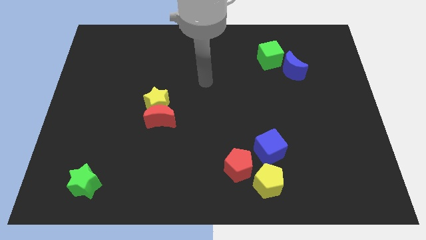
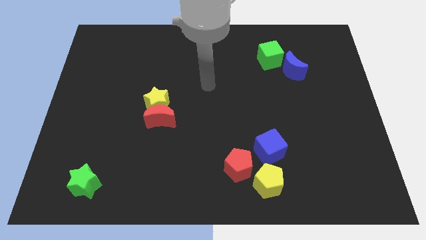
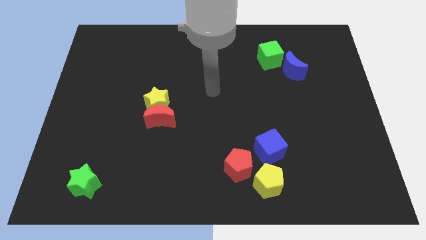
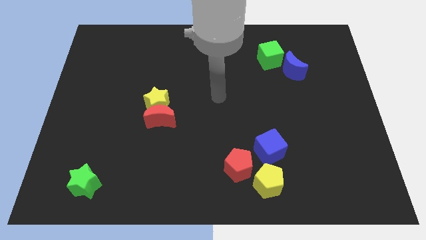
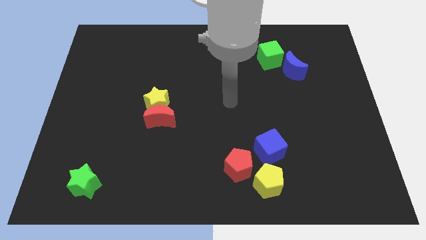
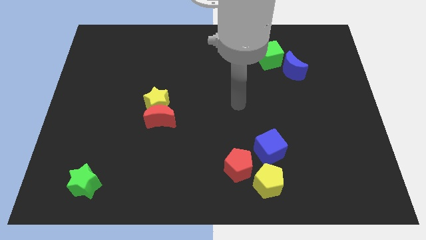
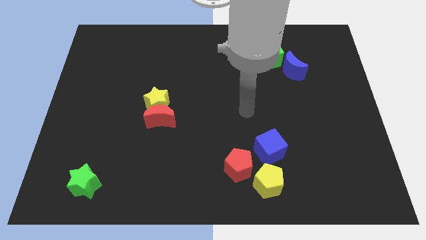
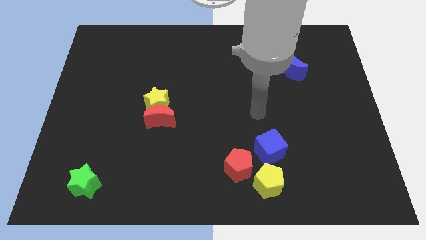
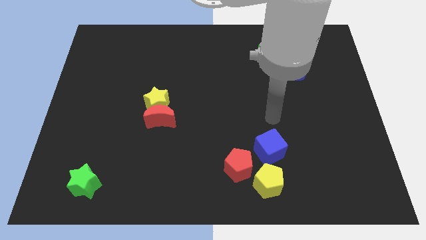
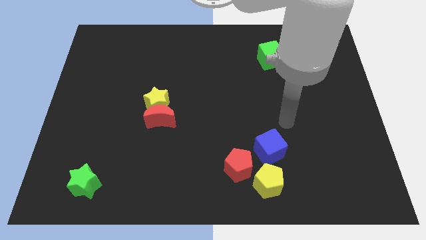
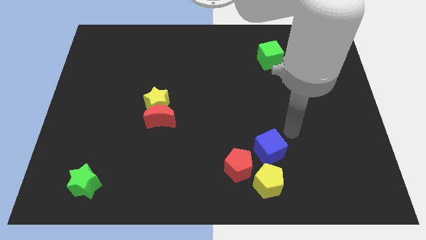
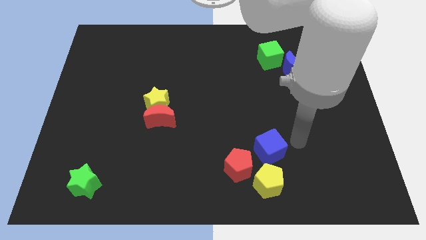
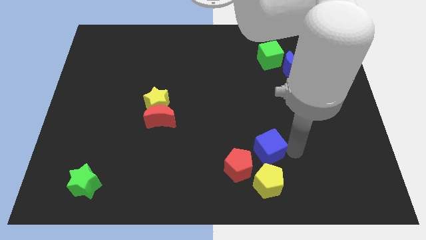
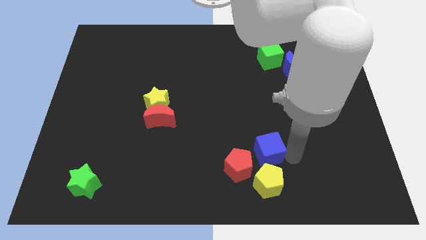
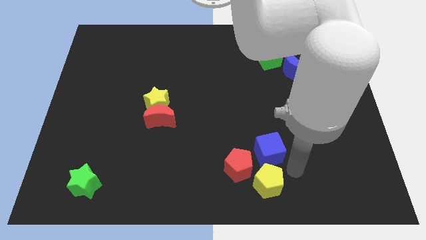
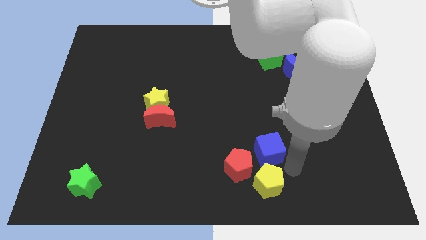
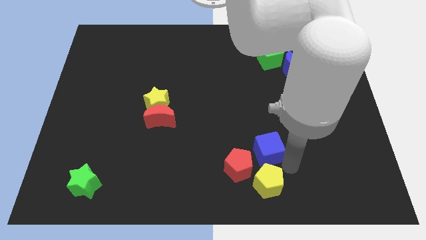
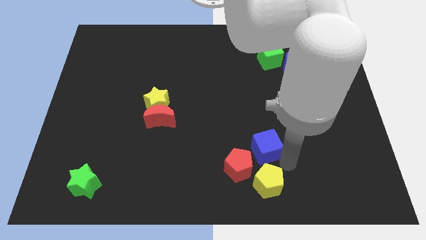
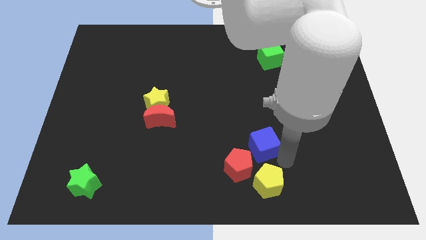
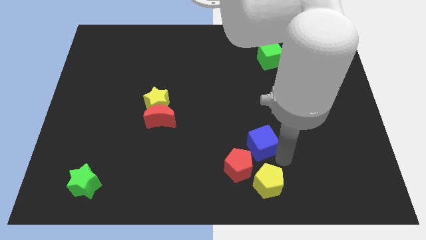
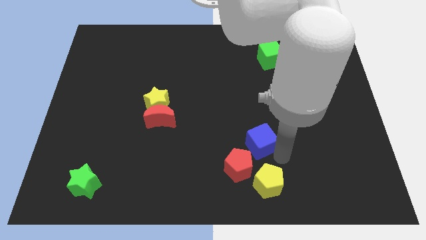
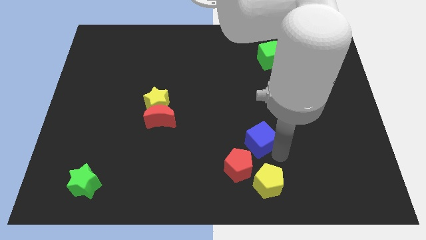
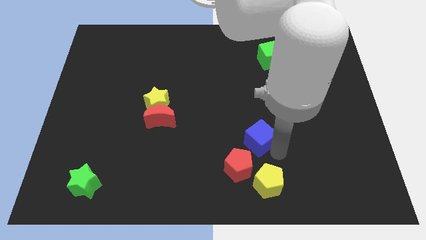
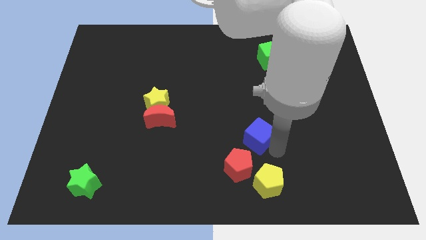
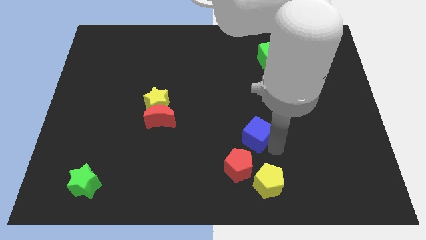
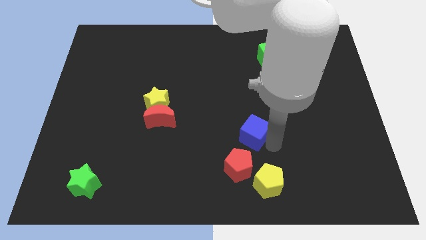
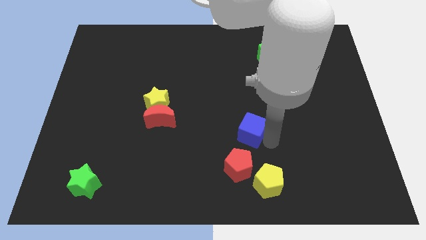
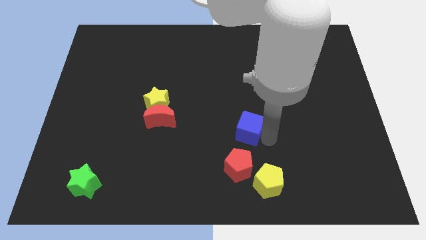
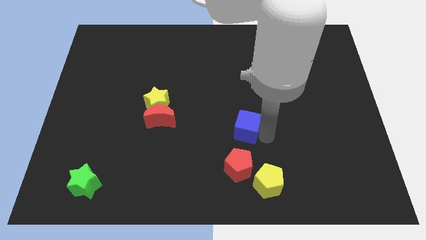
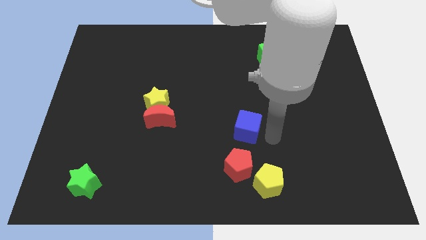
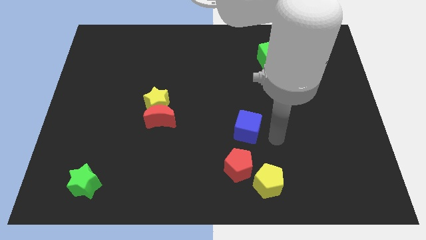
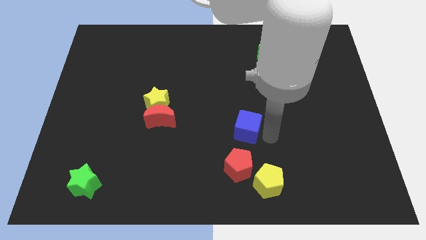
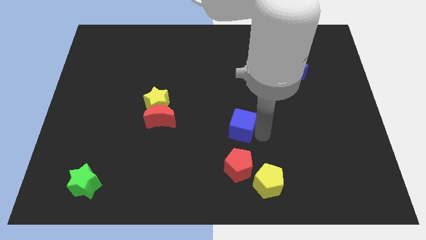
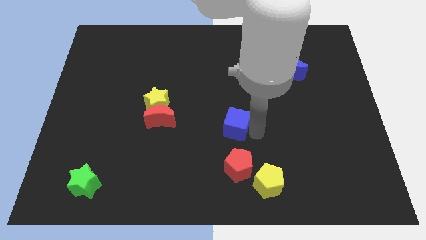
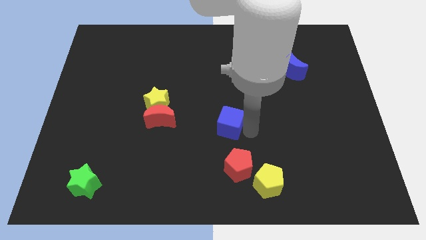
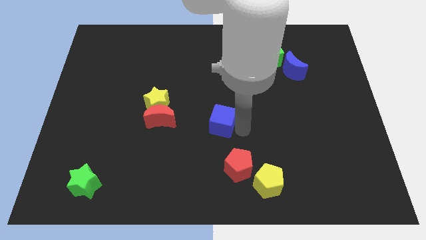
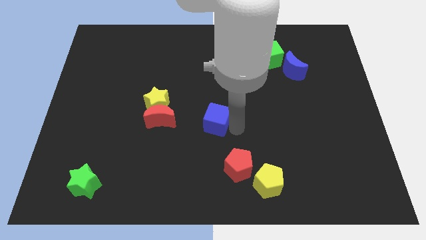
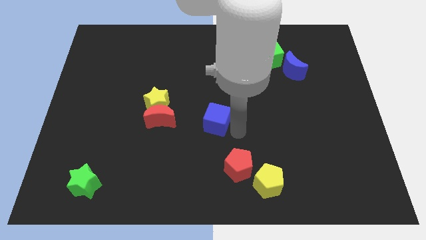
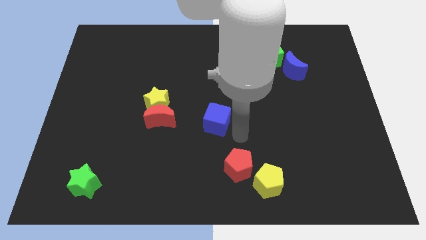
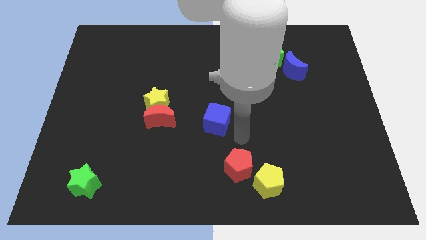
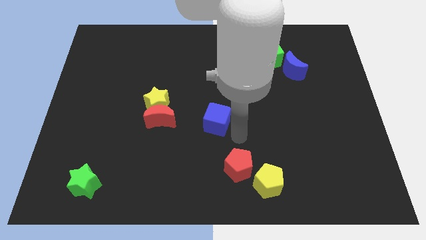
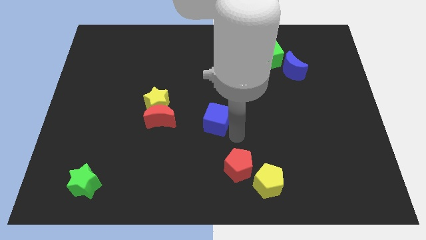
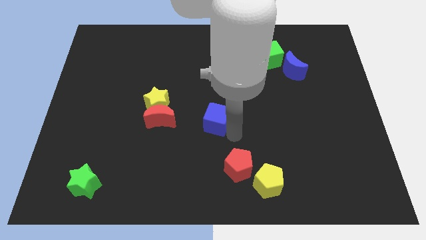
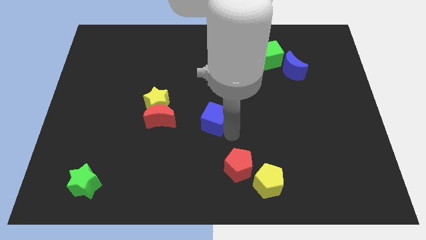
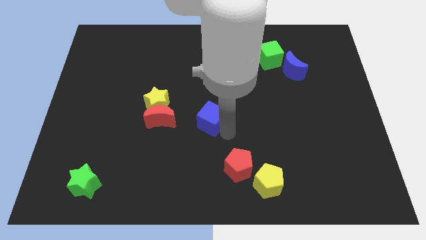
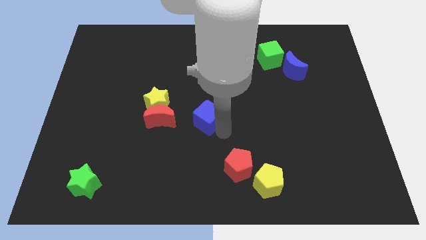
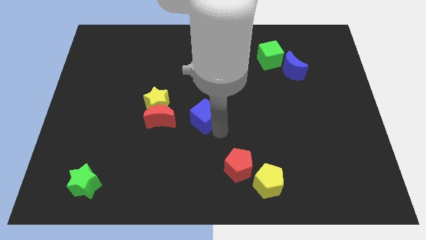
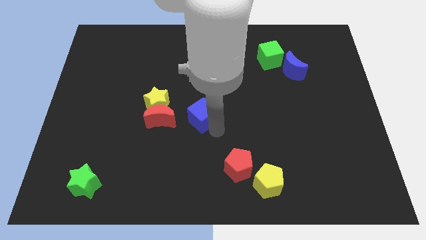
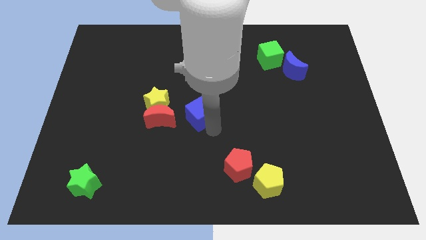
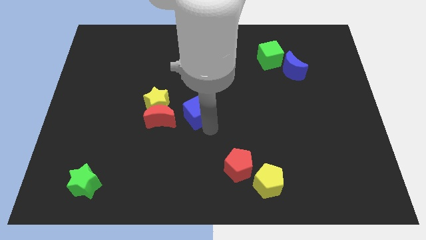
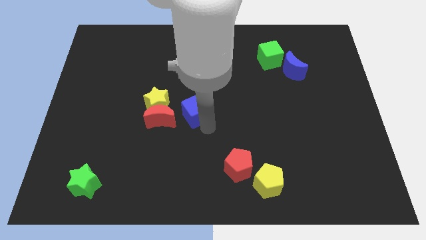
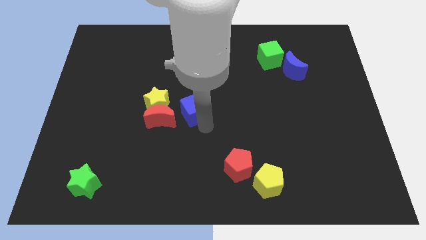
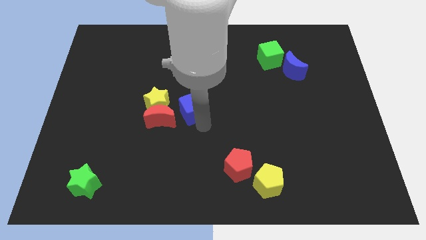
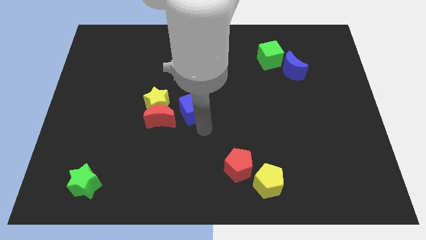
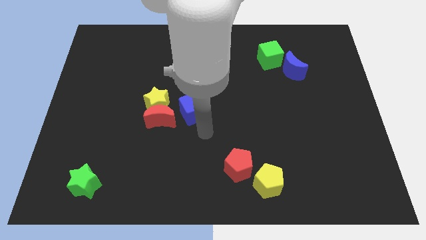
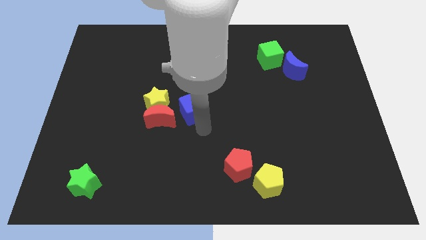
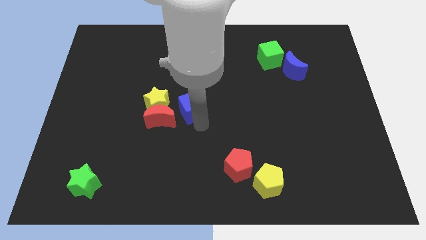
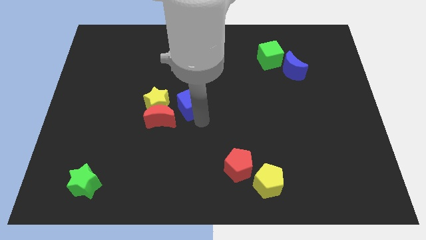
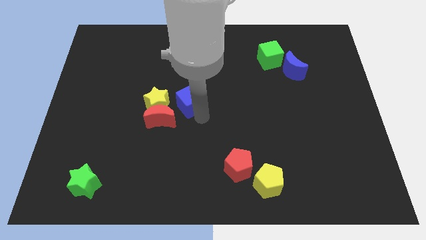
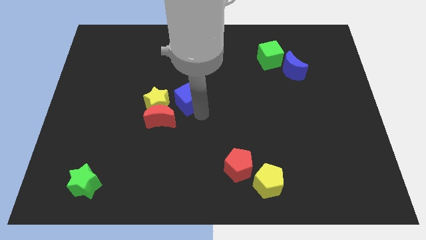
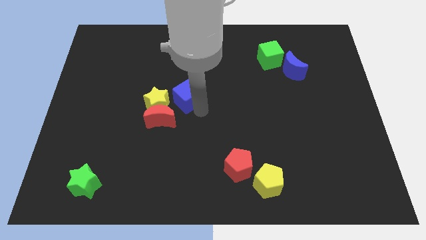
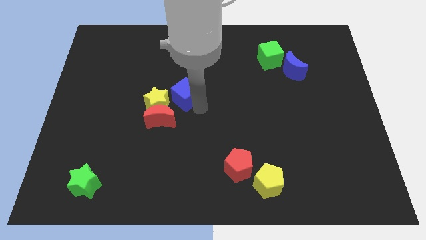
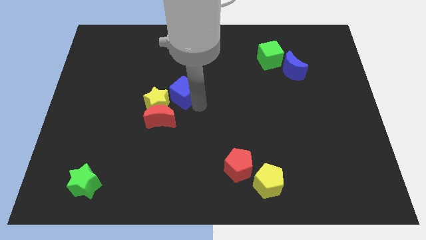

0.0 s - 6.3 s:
move the blue cube above the red moon
